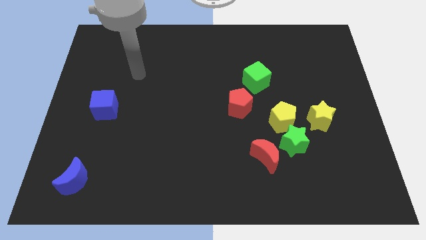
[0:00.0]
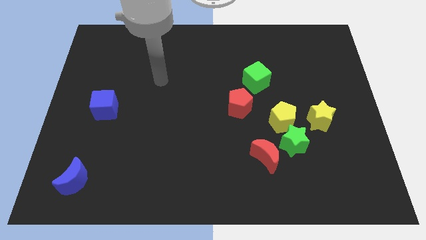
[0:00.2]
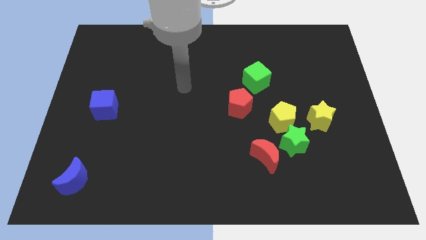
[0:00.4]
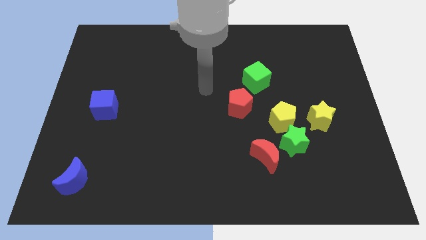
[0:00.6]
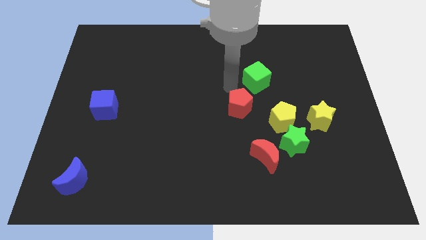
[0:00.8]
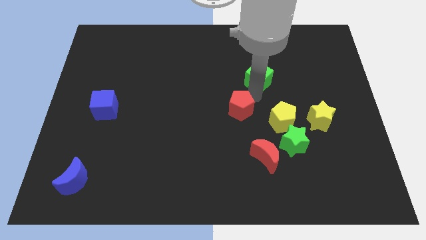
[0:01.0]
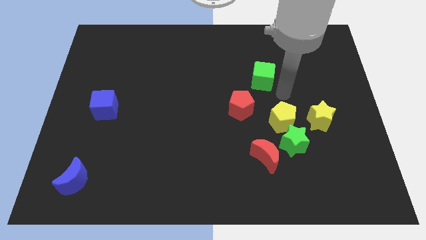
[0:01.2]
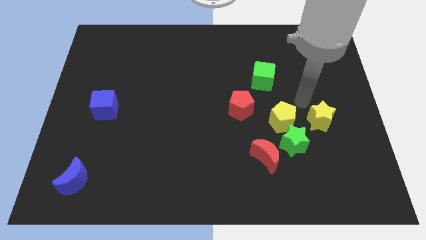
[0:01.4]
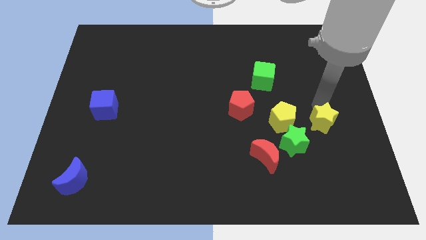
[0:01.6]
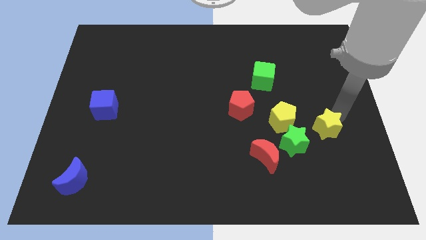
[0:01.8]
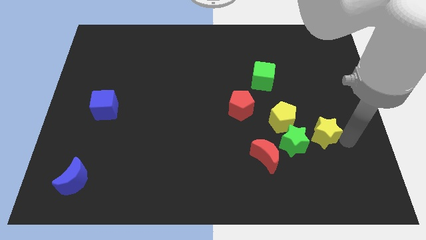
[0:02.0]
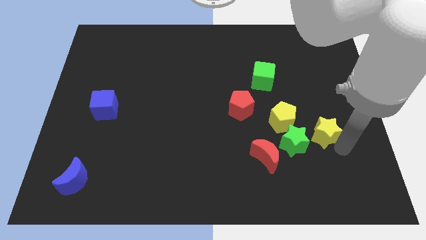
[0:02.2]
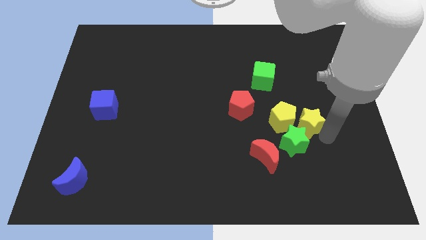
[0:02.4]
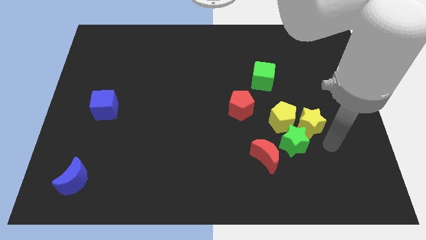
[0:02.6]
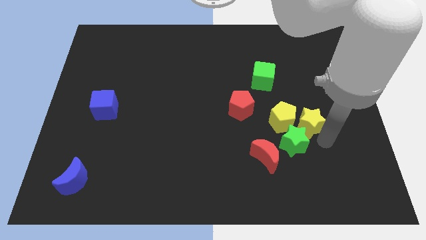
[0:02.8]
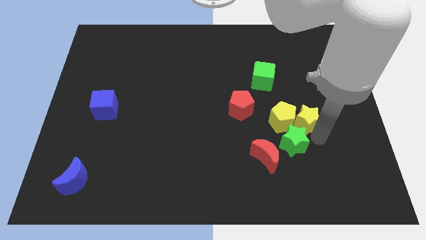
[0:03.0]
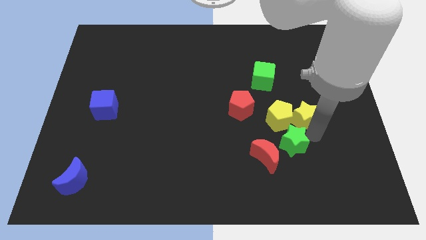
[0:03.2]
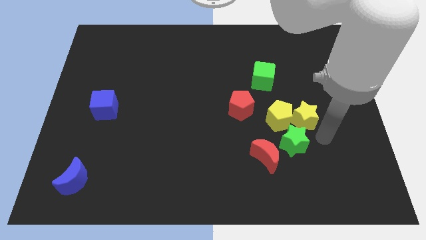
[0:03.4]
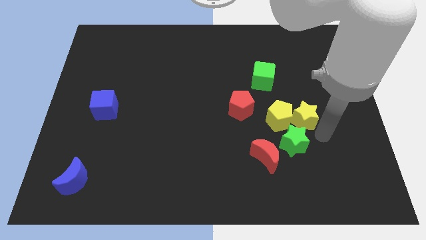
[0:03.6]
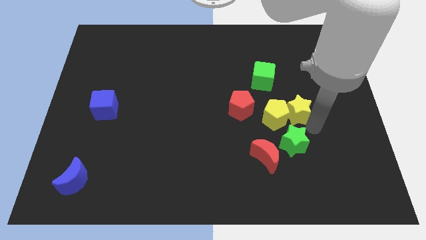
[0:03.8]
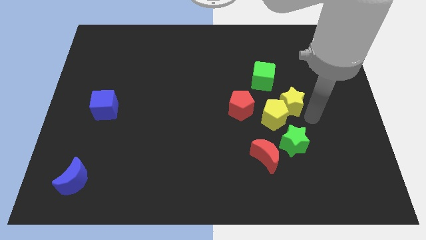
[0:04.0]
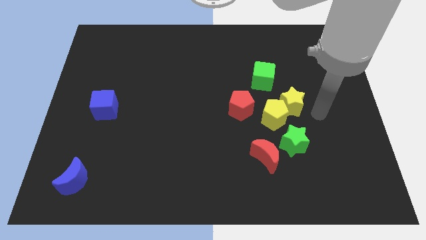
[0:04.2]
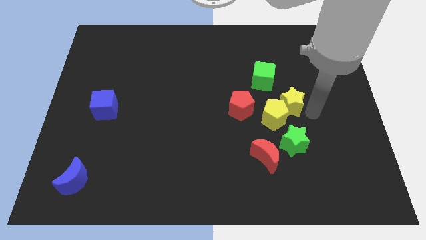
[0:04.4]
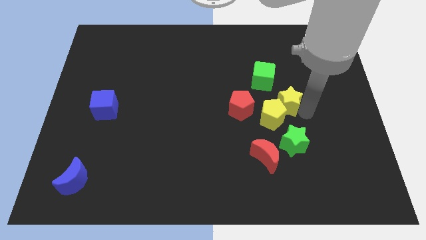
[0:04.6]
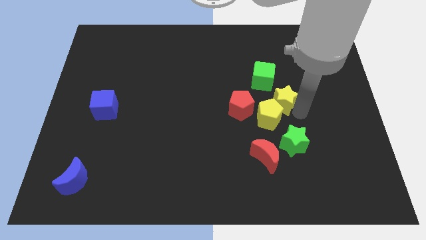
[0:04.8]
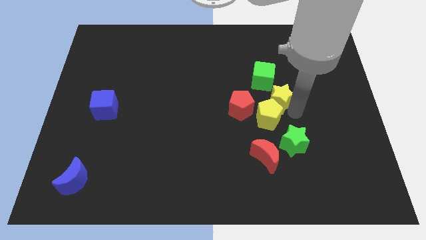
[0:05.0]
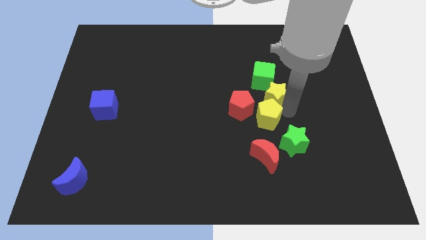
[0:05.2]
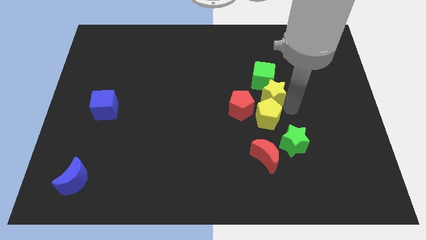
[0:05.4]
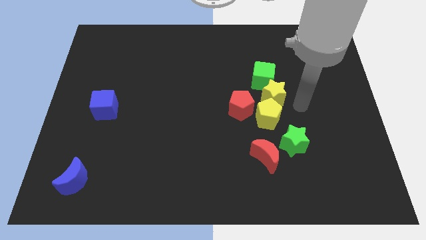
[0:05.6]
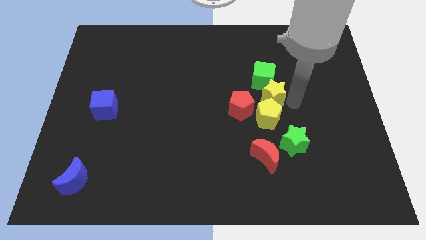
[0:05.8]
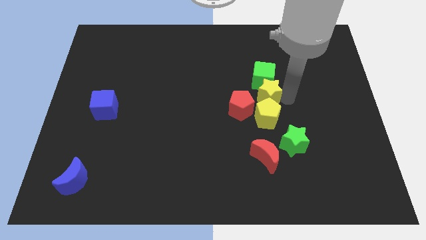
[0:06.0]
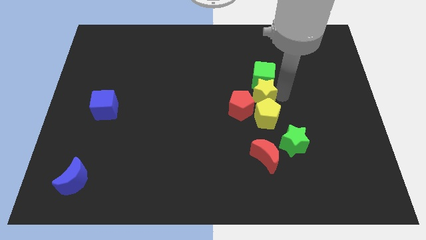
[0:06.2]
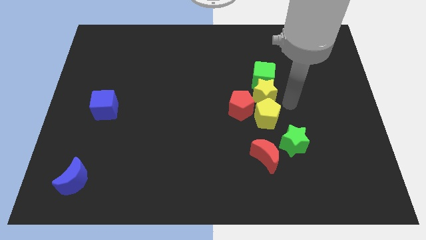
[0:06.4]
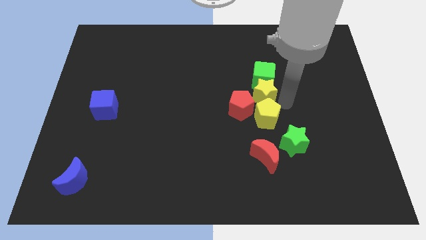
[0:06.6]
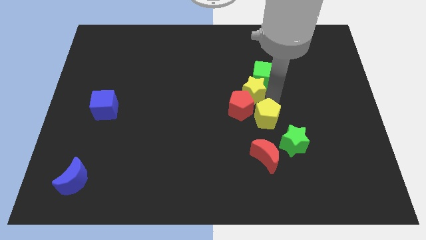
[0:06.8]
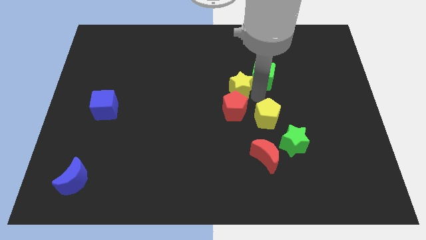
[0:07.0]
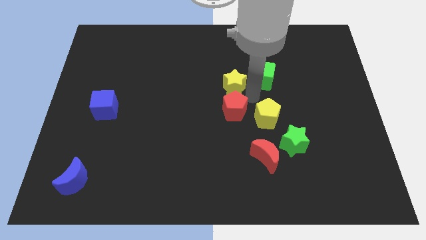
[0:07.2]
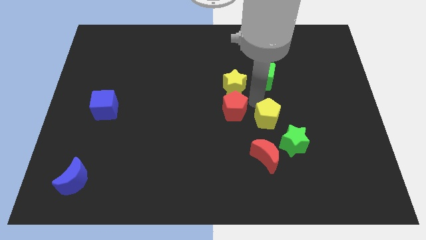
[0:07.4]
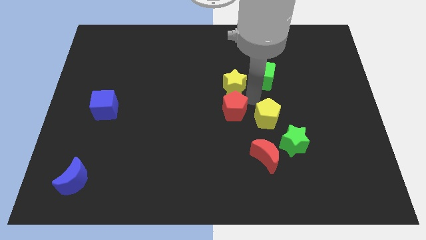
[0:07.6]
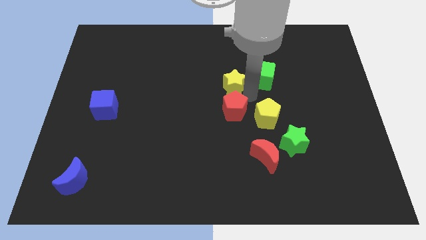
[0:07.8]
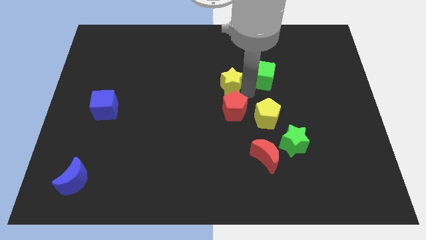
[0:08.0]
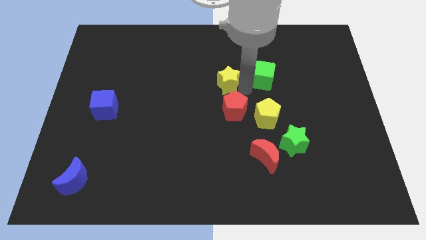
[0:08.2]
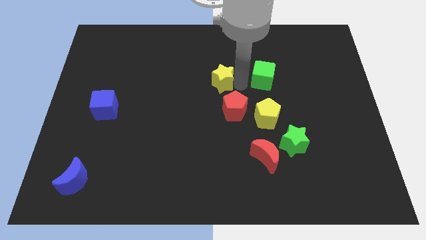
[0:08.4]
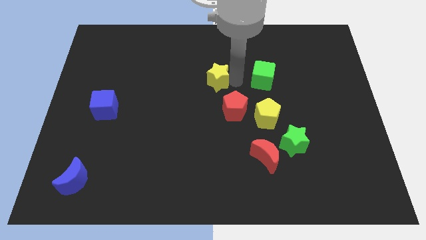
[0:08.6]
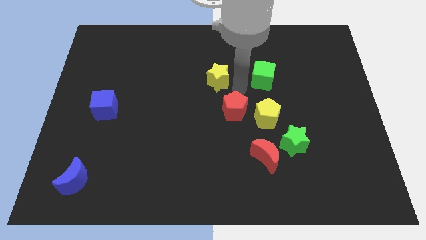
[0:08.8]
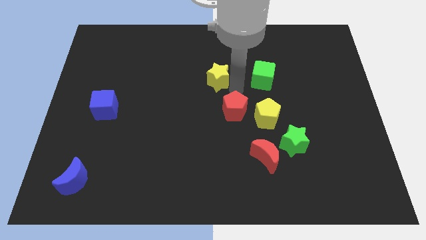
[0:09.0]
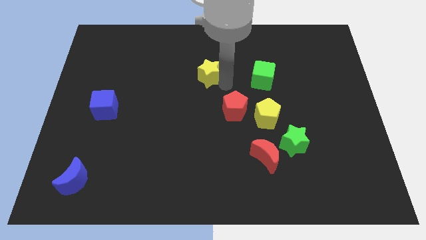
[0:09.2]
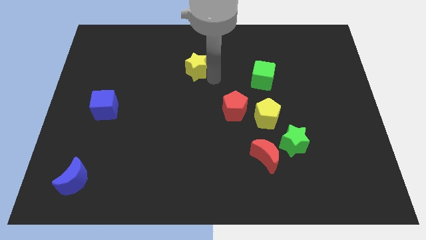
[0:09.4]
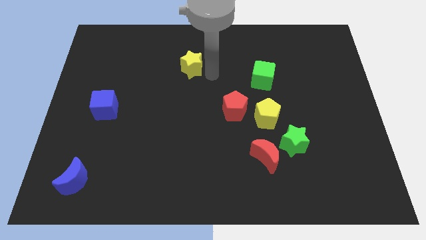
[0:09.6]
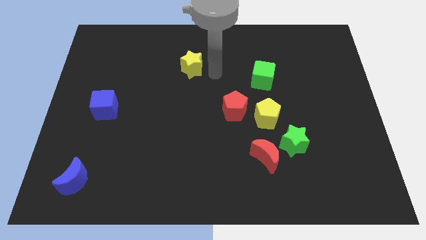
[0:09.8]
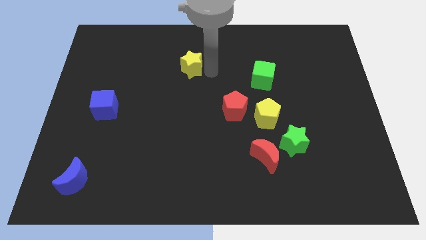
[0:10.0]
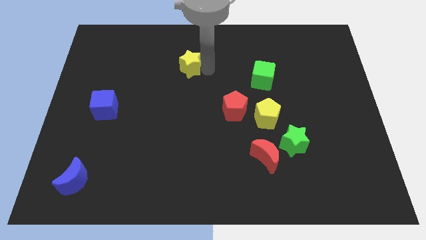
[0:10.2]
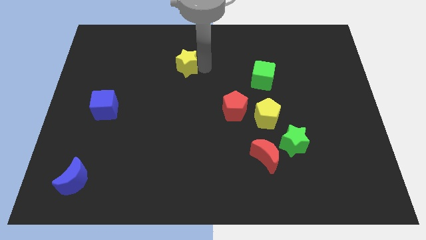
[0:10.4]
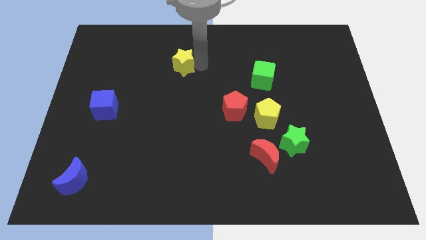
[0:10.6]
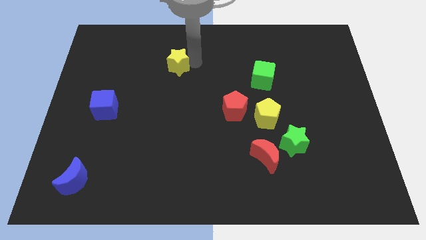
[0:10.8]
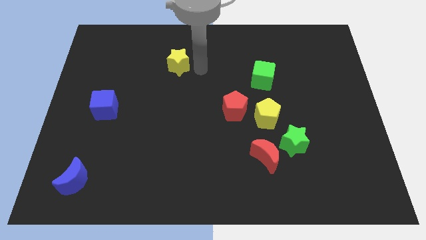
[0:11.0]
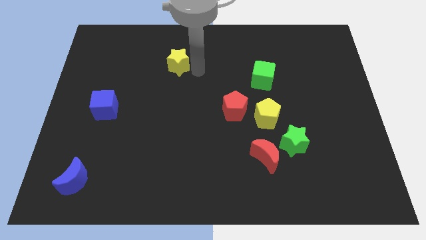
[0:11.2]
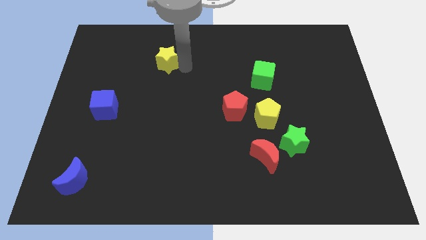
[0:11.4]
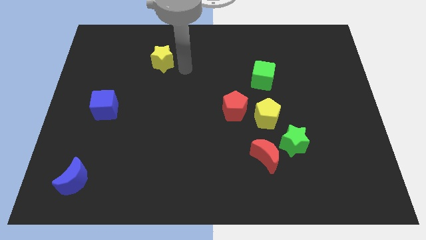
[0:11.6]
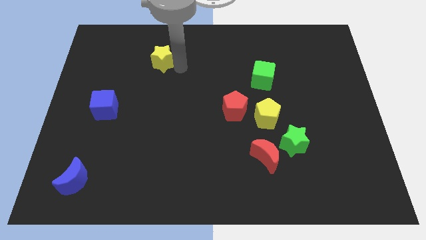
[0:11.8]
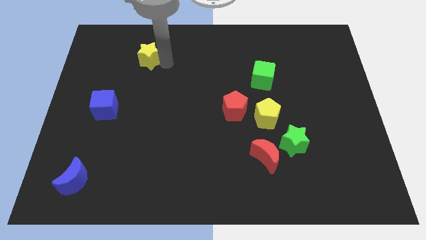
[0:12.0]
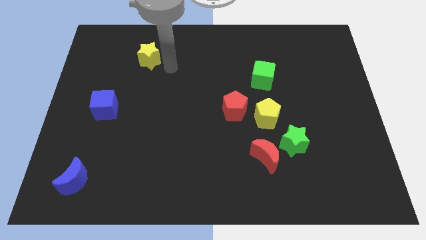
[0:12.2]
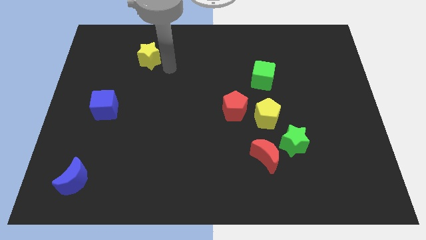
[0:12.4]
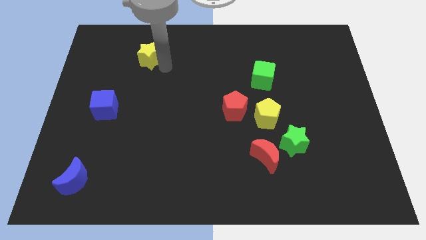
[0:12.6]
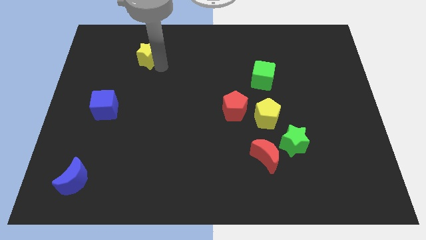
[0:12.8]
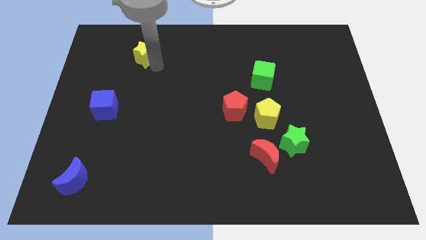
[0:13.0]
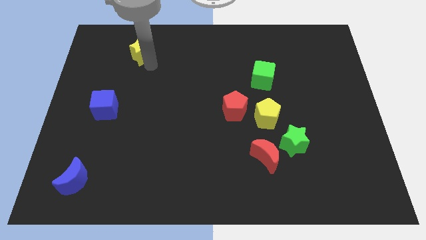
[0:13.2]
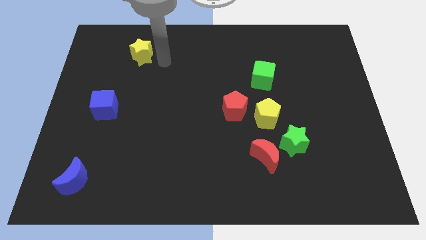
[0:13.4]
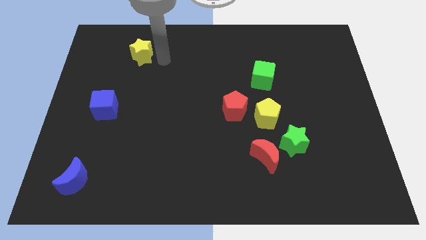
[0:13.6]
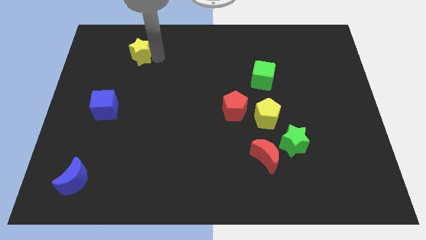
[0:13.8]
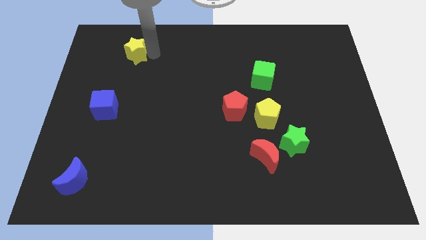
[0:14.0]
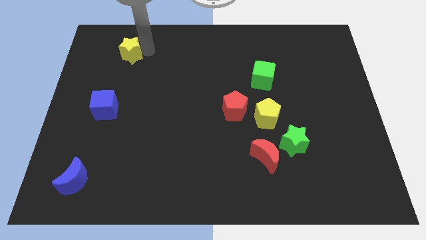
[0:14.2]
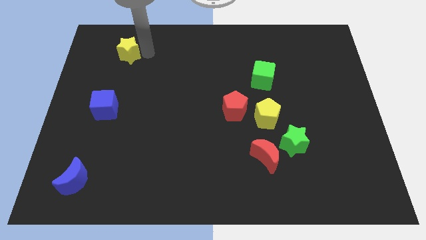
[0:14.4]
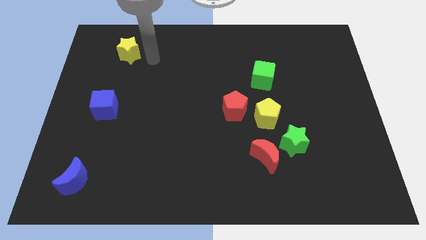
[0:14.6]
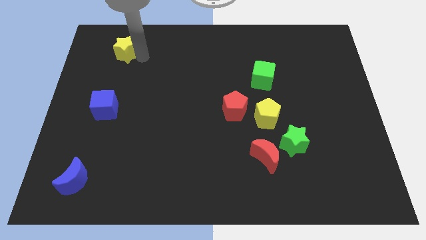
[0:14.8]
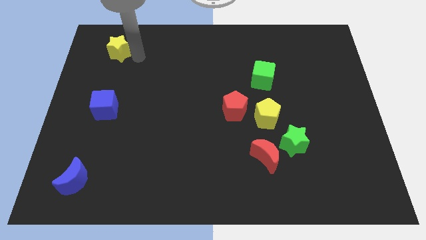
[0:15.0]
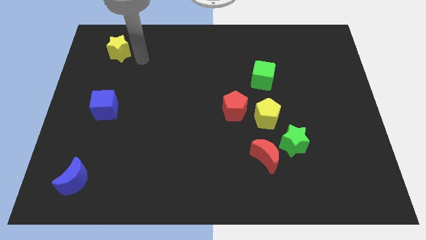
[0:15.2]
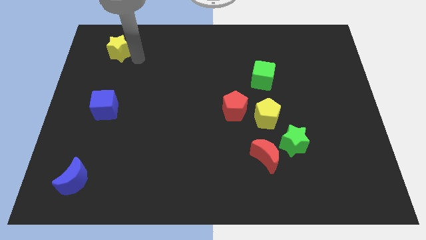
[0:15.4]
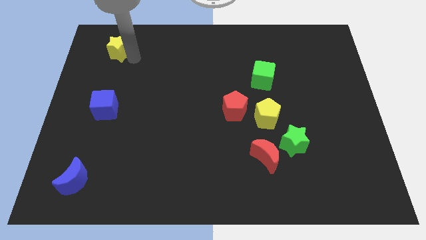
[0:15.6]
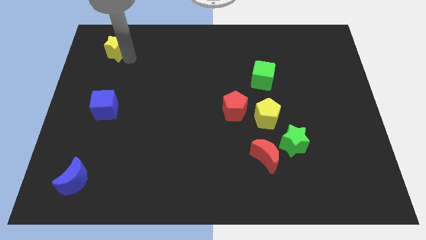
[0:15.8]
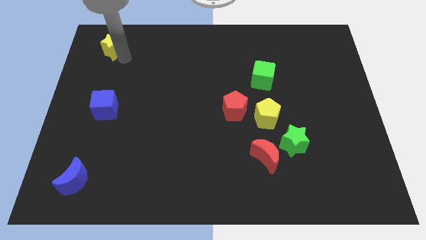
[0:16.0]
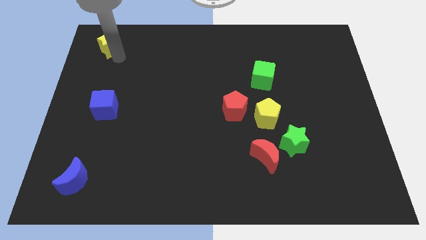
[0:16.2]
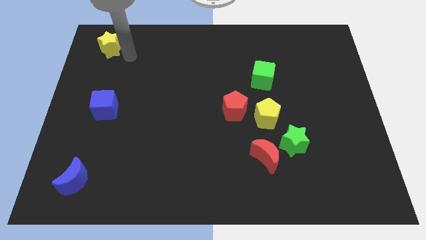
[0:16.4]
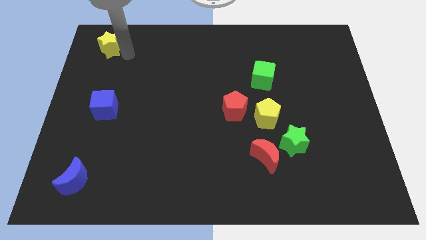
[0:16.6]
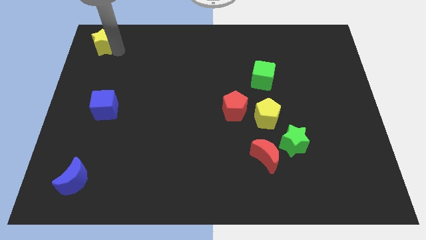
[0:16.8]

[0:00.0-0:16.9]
put the yellow star to the top left corner
